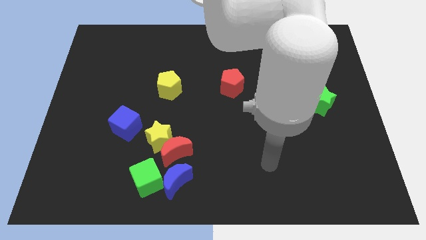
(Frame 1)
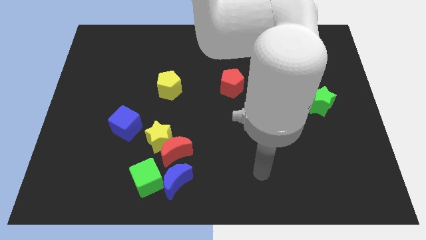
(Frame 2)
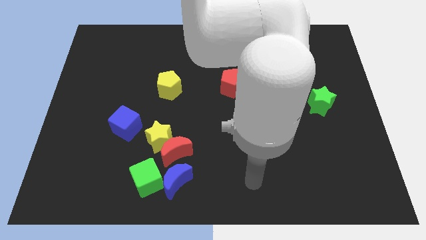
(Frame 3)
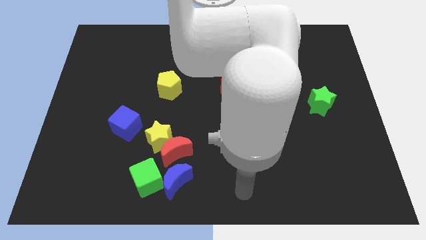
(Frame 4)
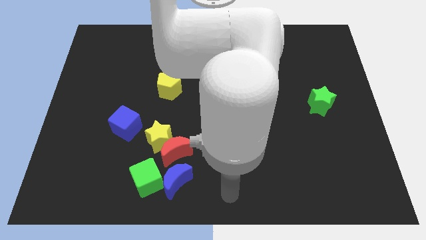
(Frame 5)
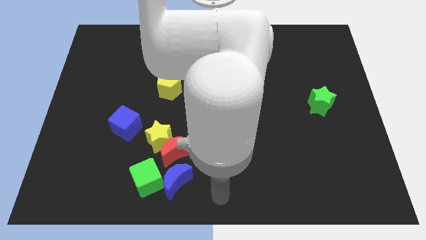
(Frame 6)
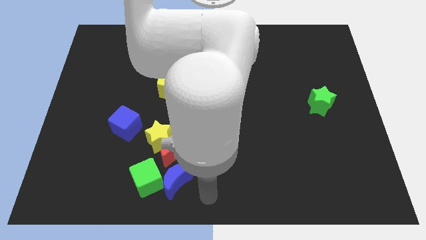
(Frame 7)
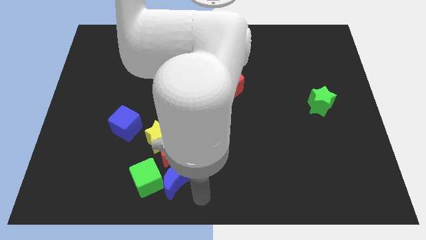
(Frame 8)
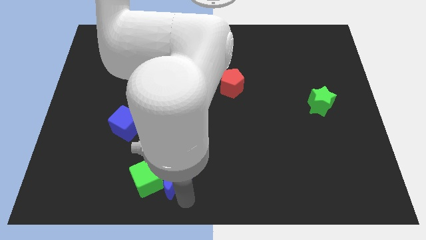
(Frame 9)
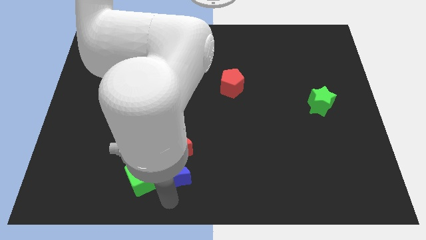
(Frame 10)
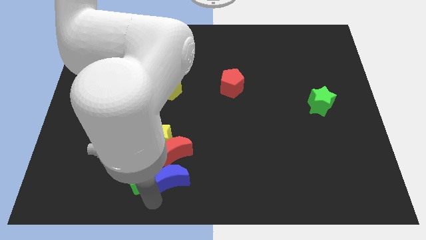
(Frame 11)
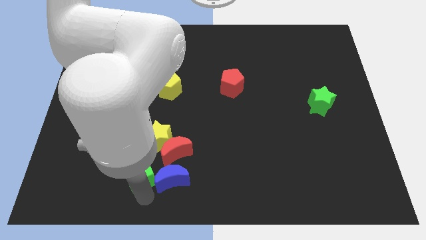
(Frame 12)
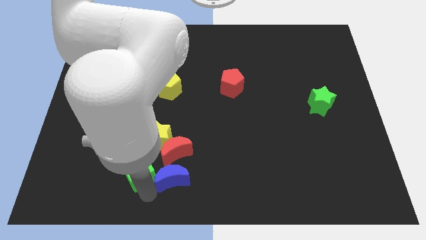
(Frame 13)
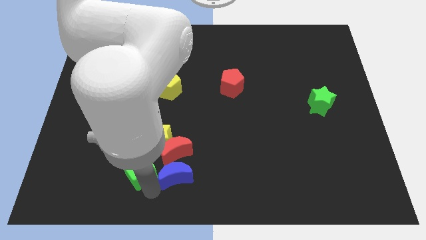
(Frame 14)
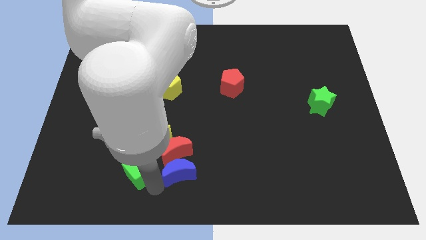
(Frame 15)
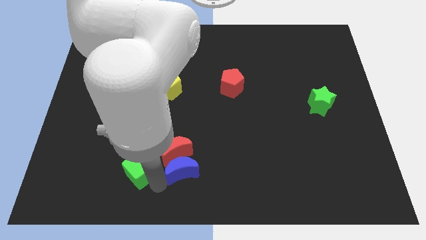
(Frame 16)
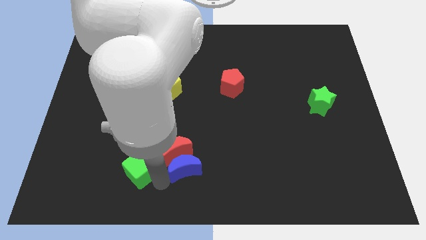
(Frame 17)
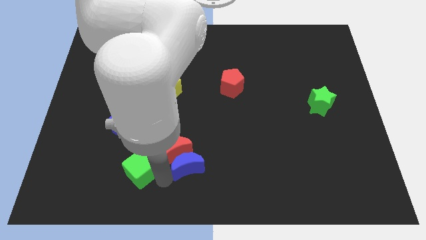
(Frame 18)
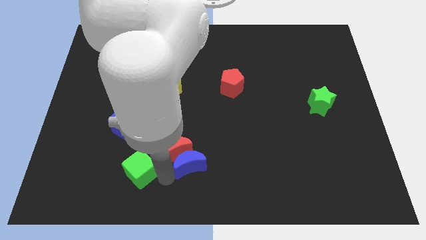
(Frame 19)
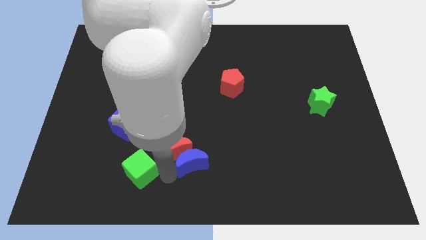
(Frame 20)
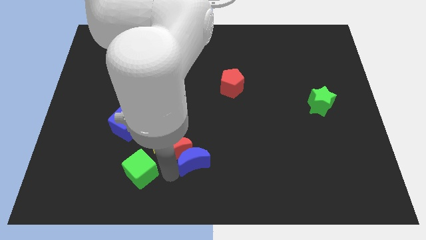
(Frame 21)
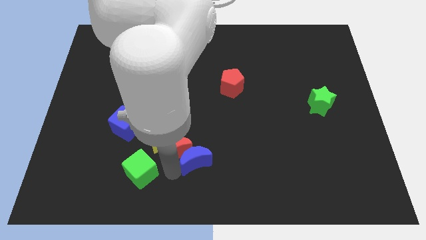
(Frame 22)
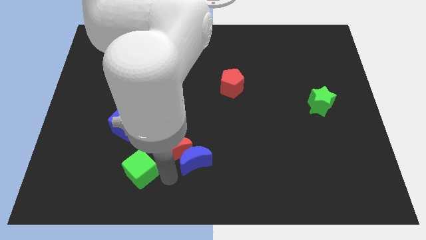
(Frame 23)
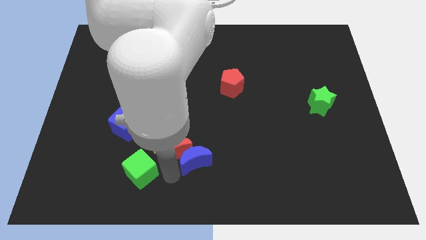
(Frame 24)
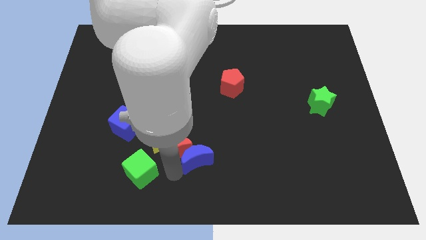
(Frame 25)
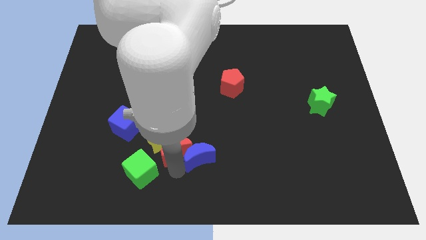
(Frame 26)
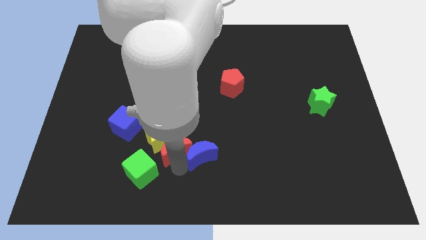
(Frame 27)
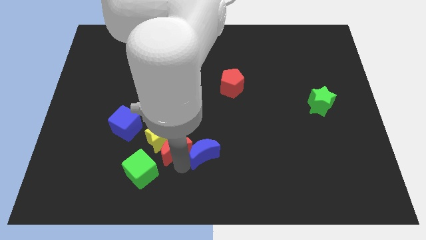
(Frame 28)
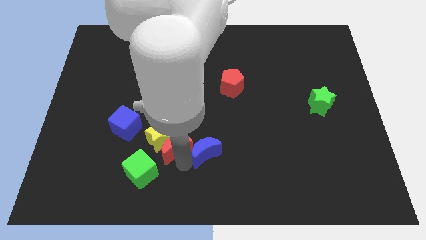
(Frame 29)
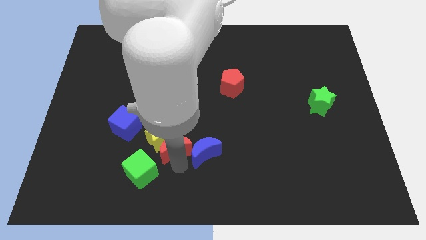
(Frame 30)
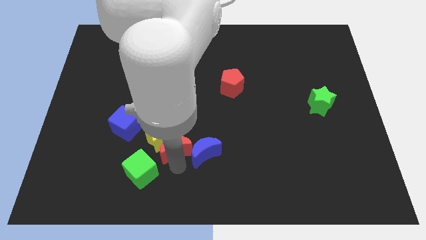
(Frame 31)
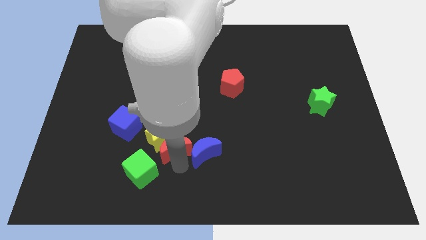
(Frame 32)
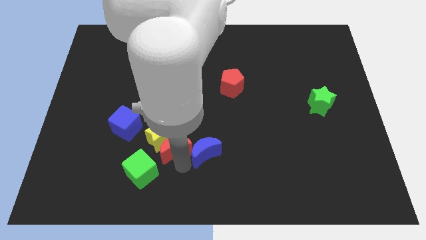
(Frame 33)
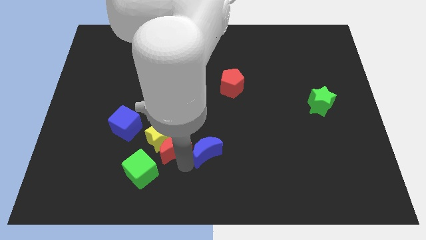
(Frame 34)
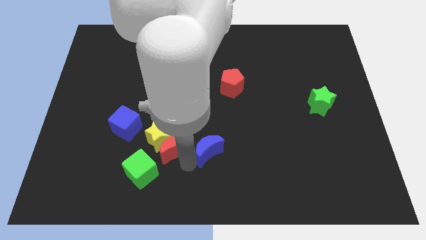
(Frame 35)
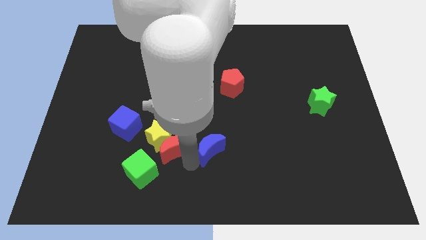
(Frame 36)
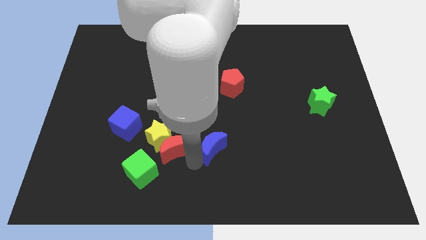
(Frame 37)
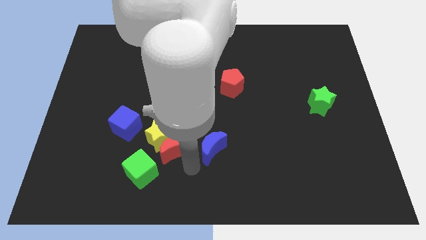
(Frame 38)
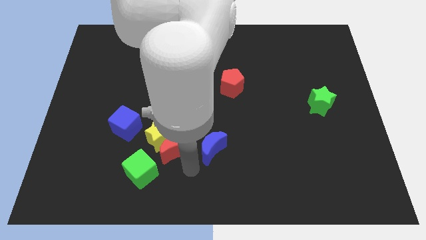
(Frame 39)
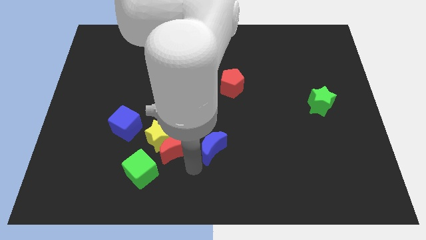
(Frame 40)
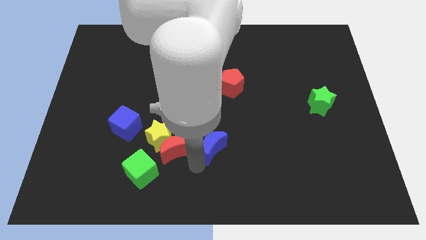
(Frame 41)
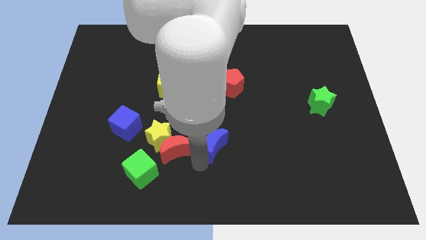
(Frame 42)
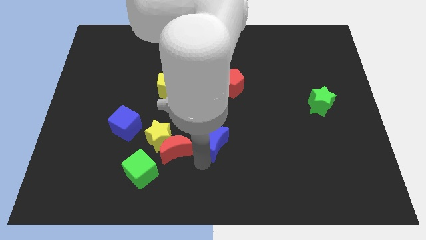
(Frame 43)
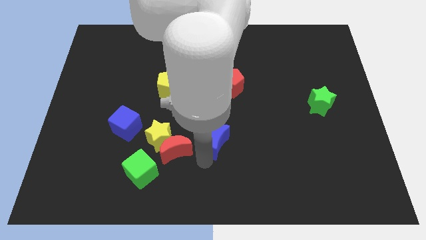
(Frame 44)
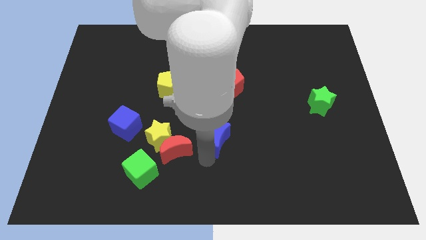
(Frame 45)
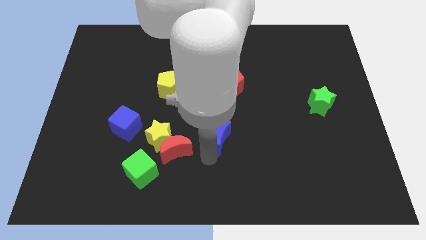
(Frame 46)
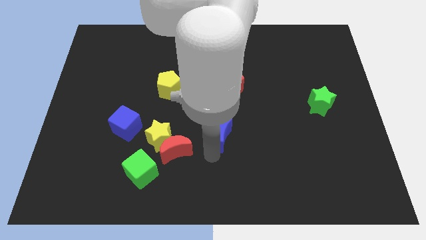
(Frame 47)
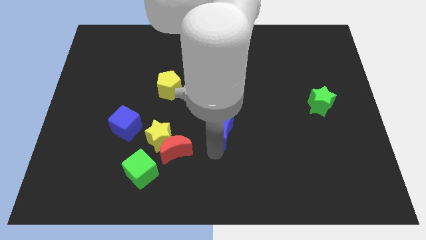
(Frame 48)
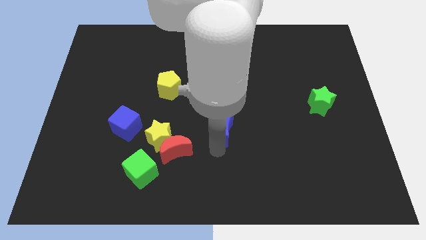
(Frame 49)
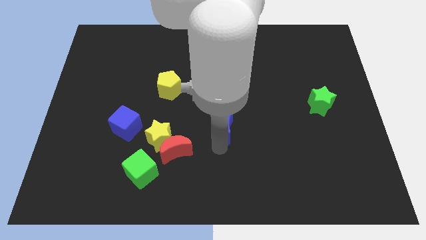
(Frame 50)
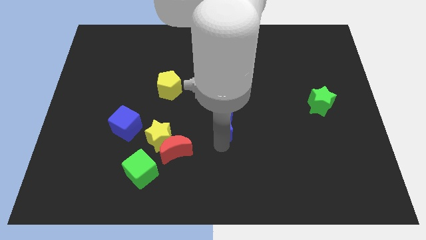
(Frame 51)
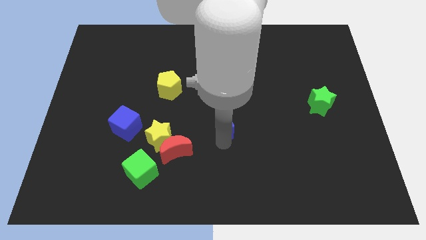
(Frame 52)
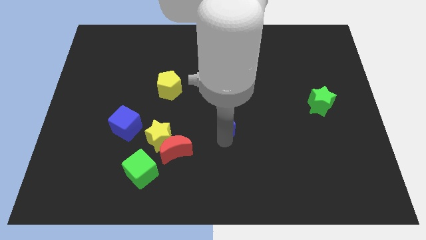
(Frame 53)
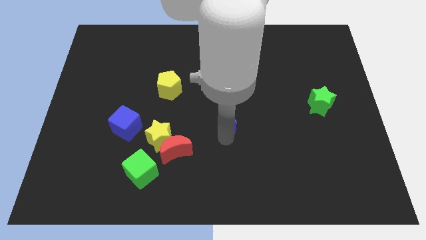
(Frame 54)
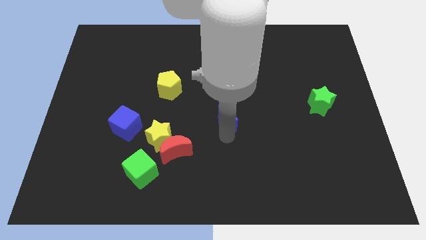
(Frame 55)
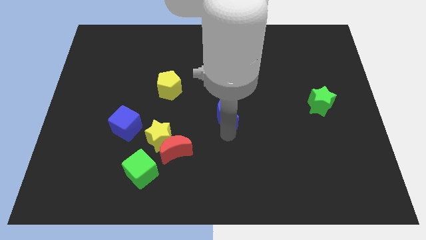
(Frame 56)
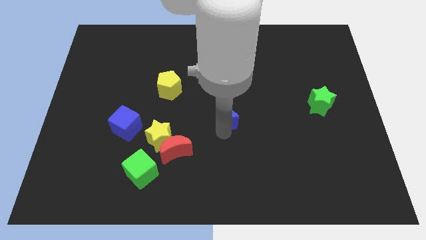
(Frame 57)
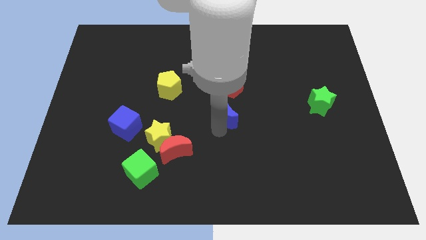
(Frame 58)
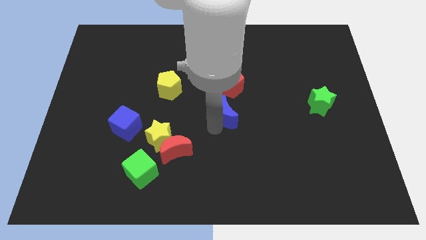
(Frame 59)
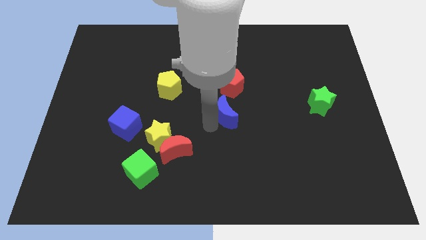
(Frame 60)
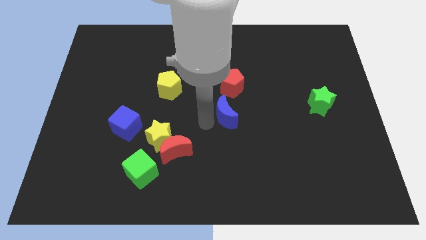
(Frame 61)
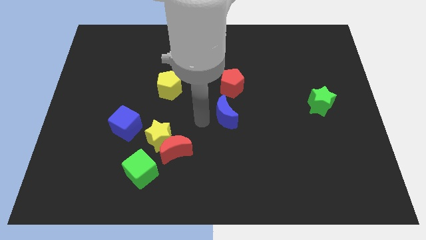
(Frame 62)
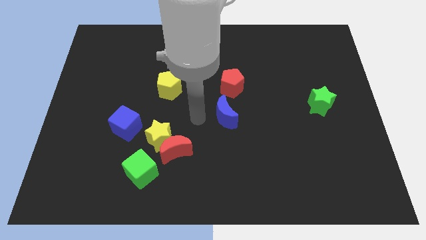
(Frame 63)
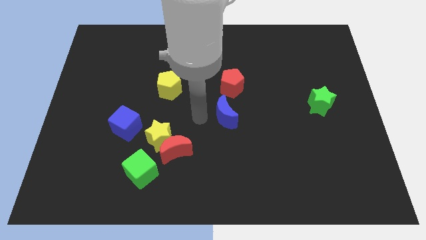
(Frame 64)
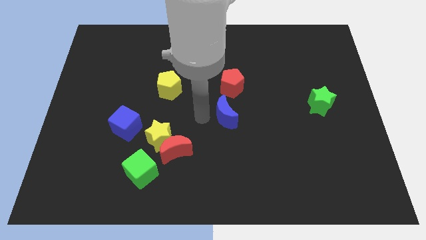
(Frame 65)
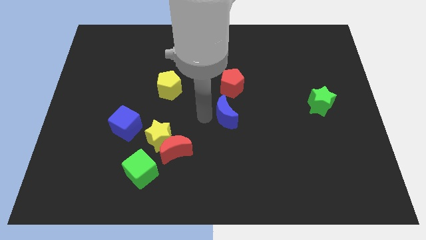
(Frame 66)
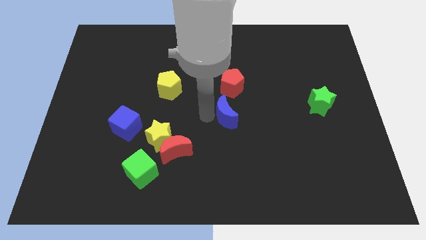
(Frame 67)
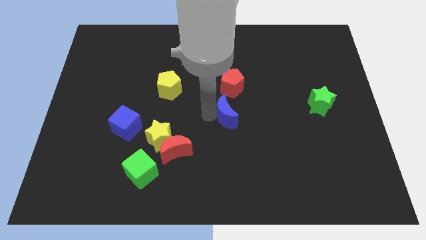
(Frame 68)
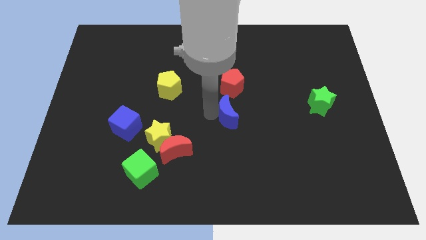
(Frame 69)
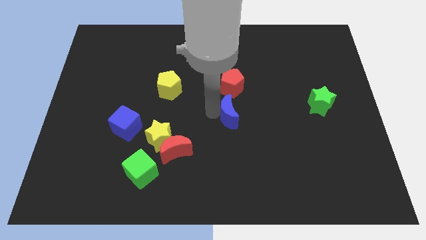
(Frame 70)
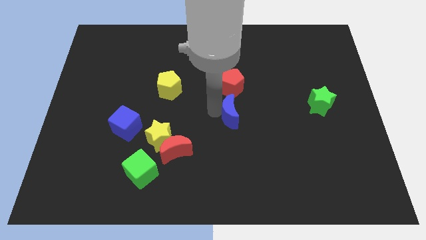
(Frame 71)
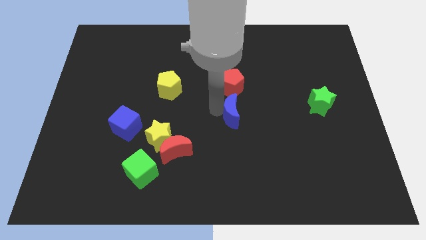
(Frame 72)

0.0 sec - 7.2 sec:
slide the blue moon up and right

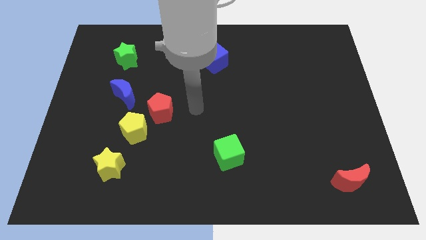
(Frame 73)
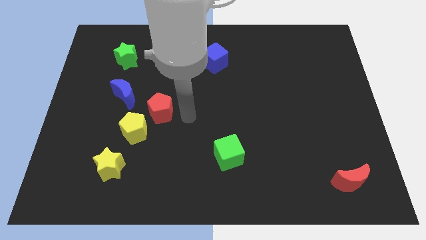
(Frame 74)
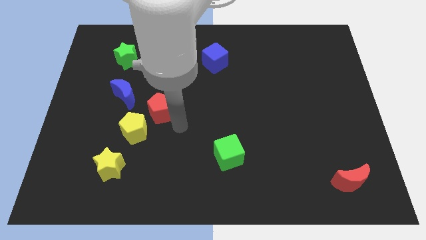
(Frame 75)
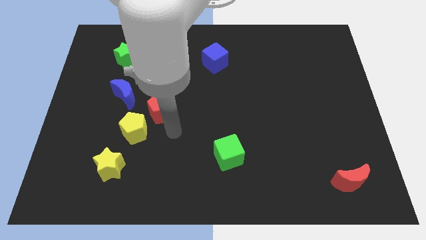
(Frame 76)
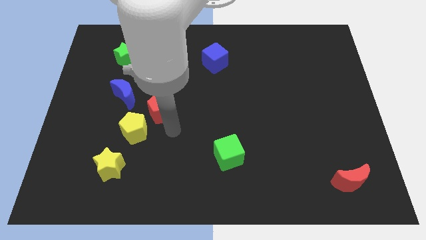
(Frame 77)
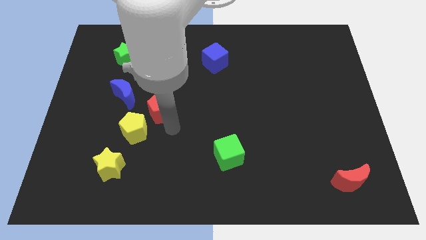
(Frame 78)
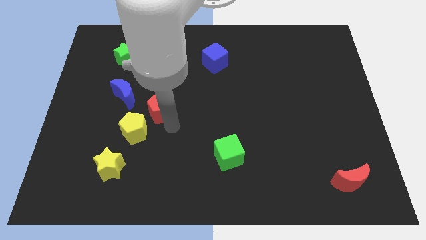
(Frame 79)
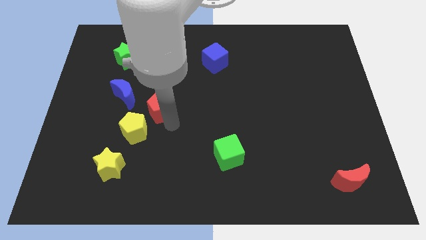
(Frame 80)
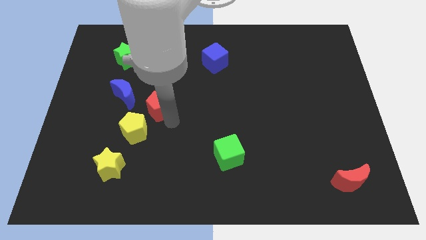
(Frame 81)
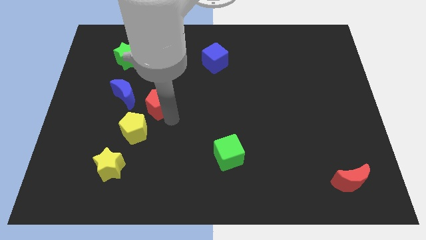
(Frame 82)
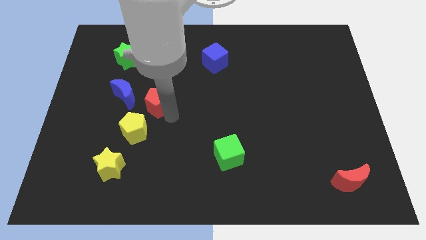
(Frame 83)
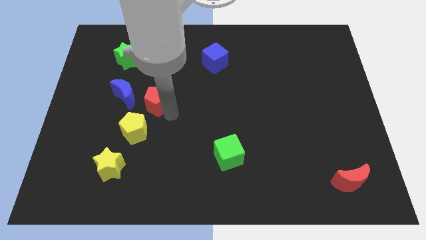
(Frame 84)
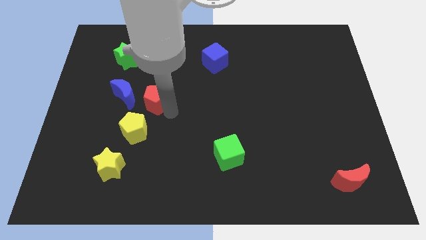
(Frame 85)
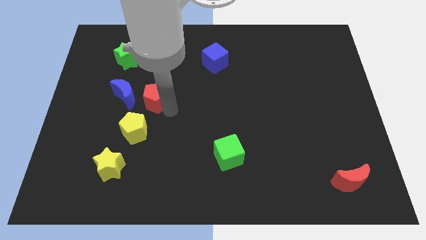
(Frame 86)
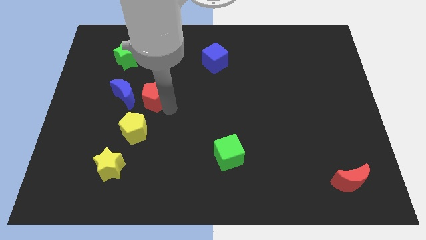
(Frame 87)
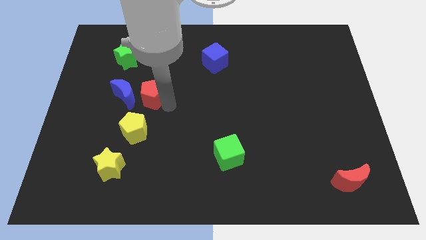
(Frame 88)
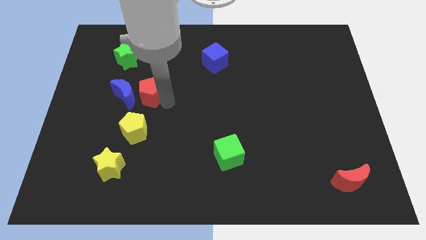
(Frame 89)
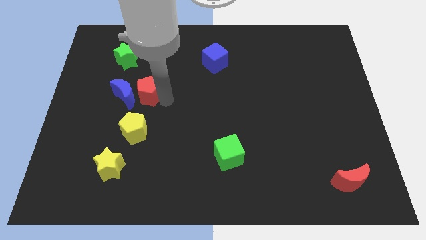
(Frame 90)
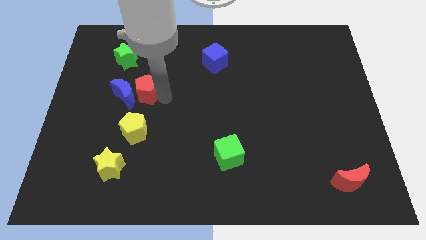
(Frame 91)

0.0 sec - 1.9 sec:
slightly slide the red pentagon upwards and left
